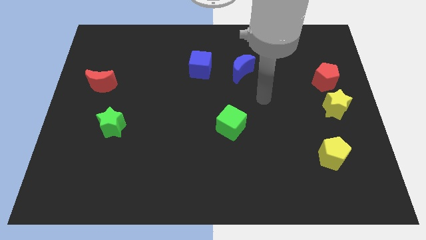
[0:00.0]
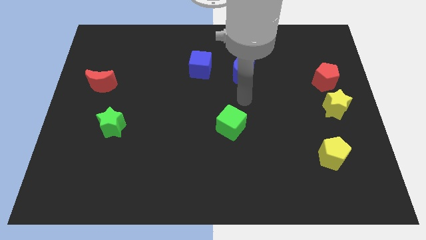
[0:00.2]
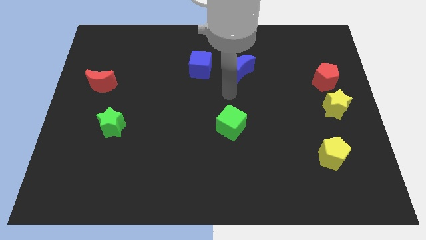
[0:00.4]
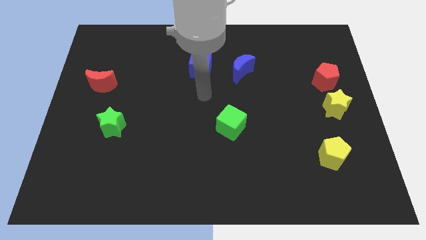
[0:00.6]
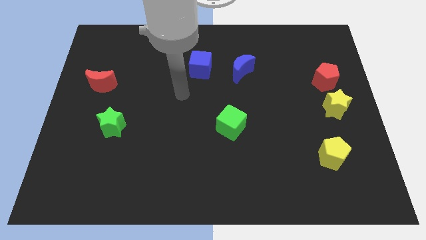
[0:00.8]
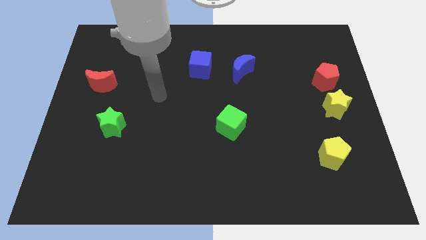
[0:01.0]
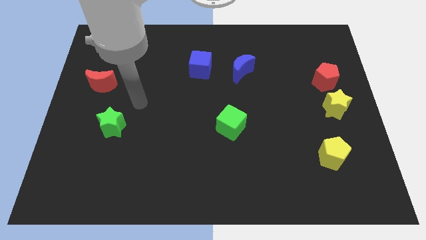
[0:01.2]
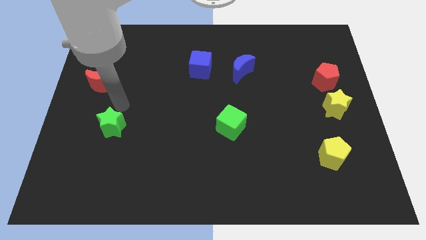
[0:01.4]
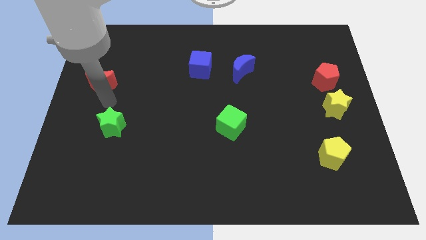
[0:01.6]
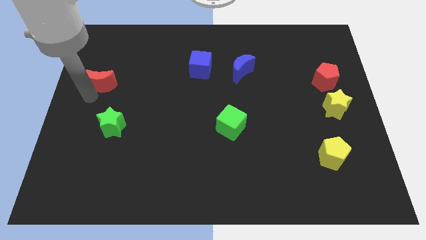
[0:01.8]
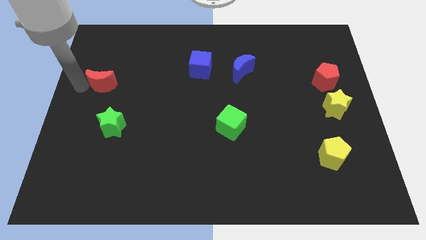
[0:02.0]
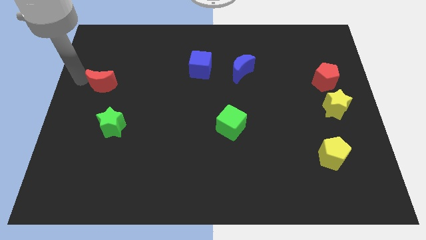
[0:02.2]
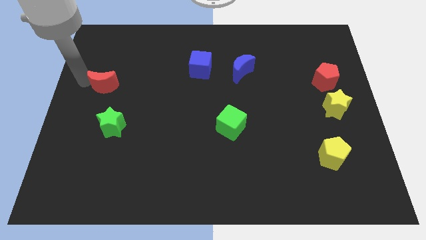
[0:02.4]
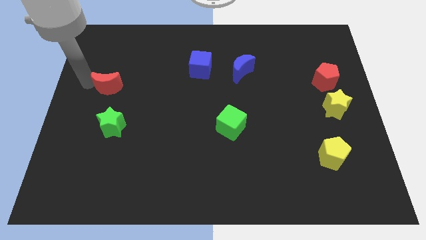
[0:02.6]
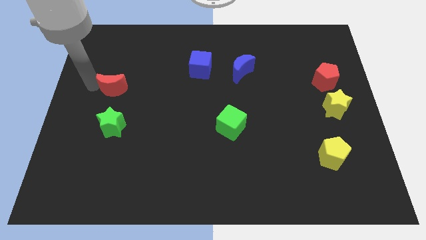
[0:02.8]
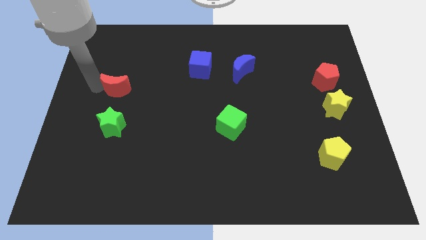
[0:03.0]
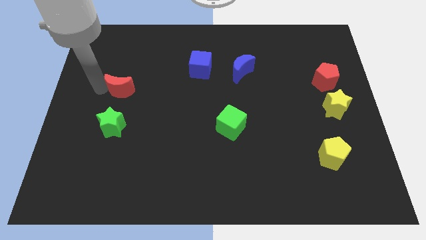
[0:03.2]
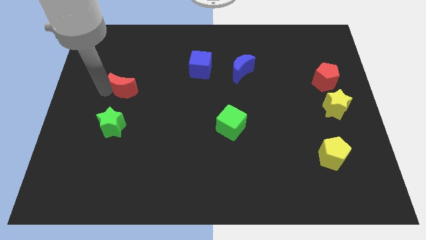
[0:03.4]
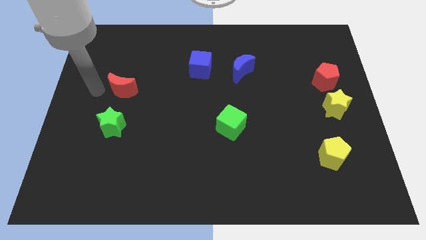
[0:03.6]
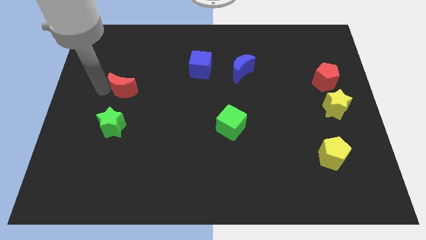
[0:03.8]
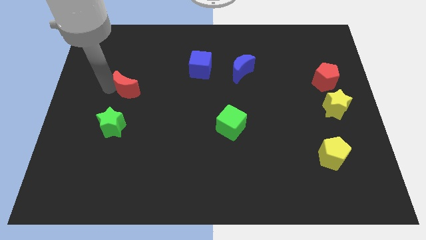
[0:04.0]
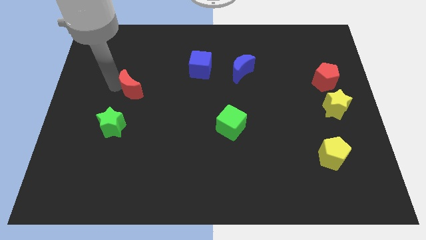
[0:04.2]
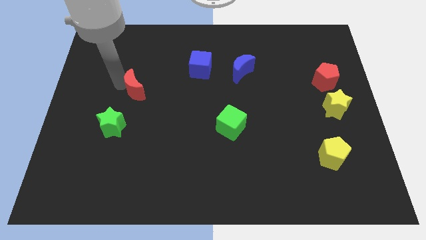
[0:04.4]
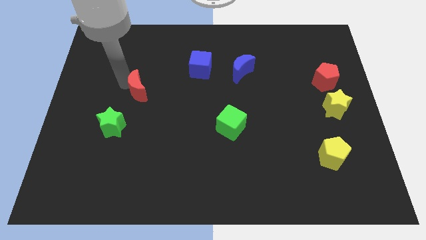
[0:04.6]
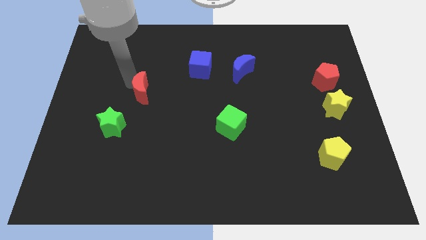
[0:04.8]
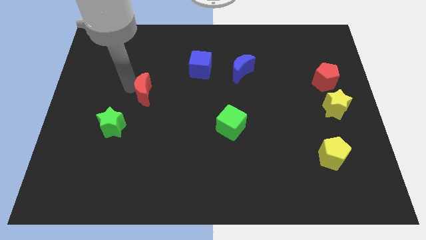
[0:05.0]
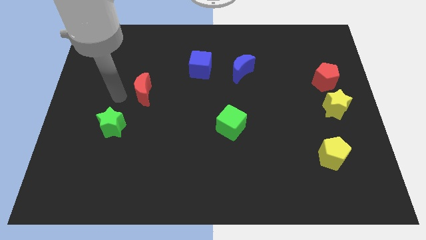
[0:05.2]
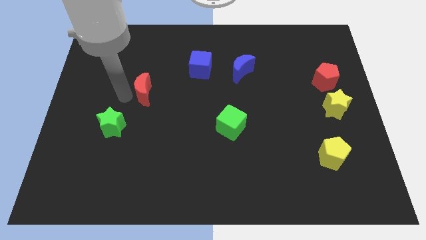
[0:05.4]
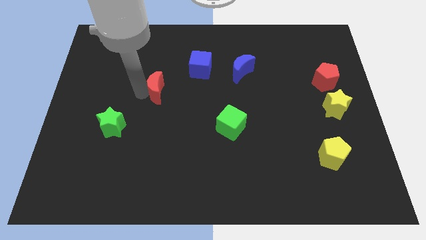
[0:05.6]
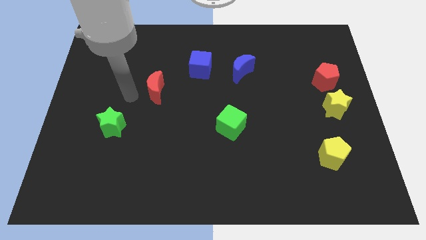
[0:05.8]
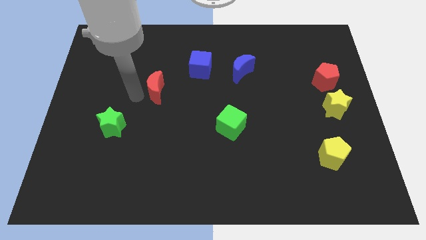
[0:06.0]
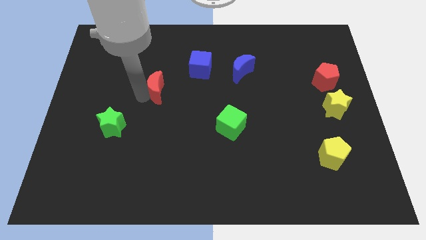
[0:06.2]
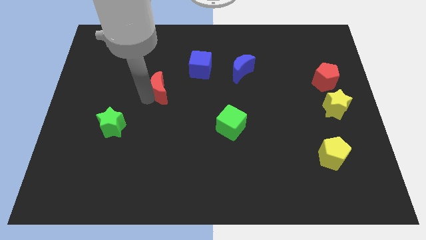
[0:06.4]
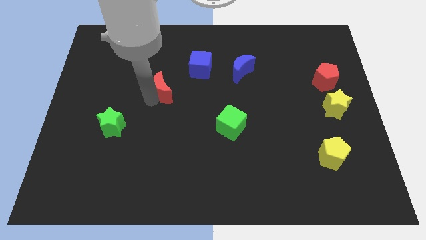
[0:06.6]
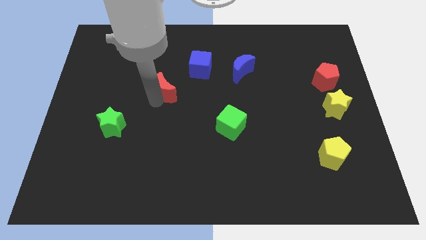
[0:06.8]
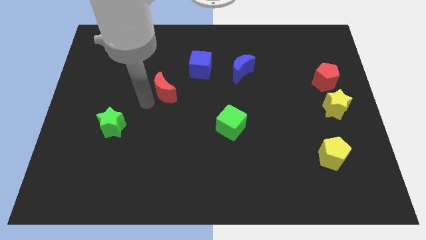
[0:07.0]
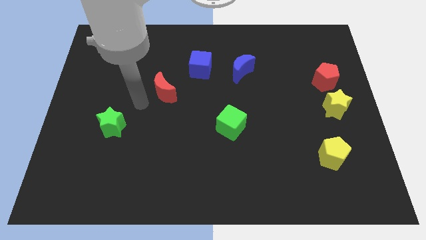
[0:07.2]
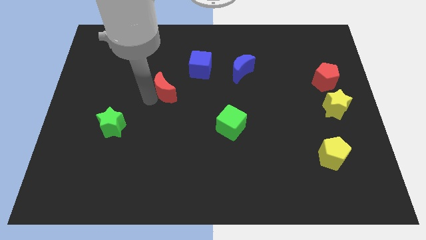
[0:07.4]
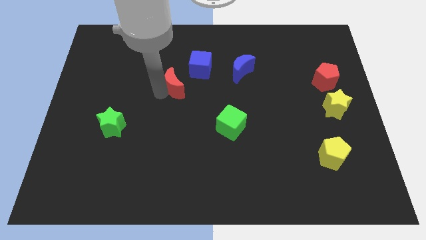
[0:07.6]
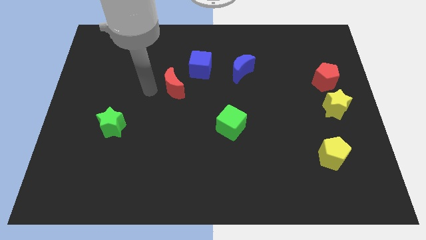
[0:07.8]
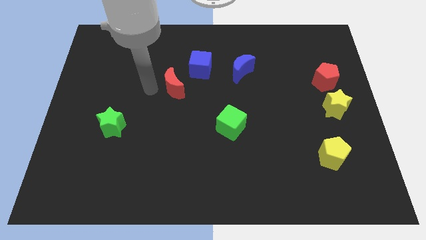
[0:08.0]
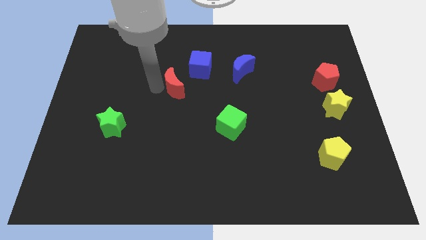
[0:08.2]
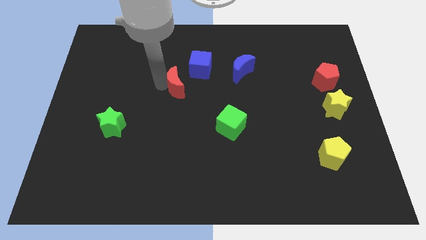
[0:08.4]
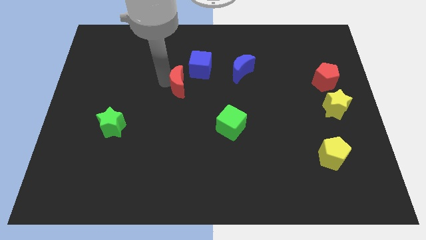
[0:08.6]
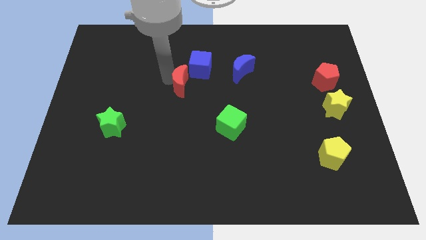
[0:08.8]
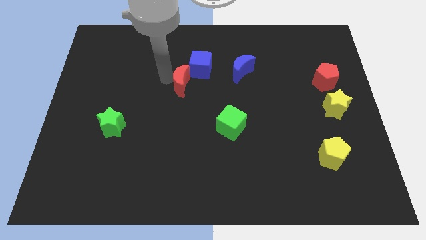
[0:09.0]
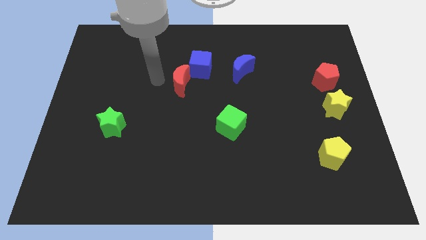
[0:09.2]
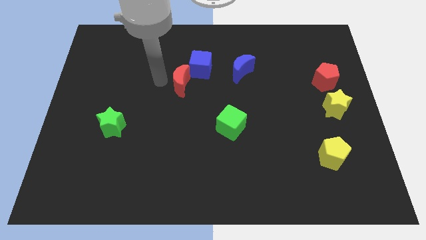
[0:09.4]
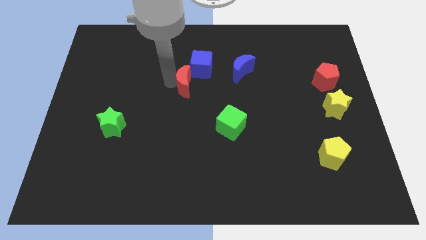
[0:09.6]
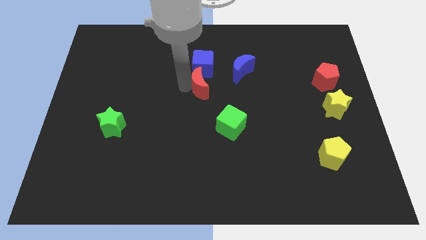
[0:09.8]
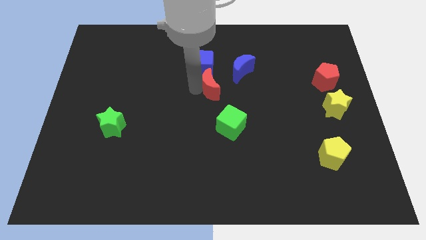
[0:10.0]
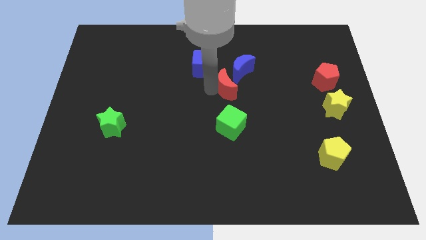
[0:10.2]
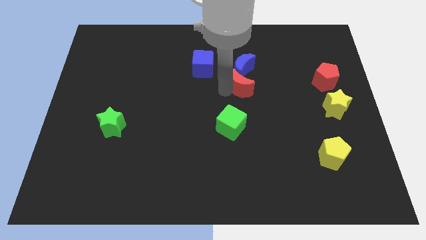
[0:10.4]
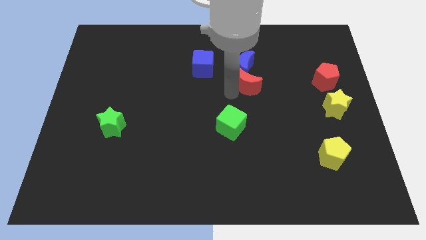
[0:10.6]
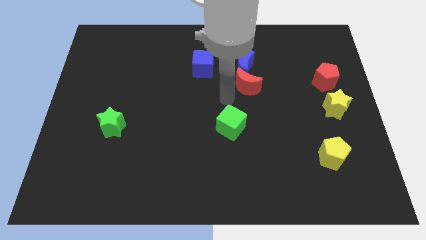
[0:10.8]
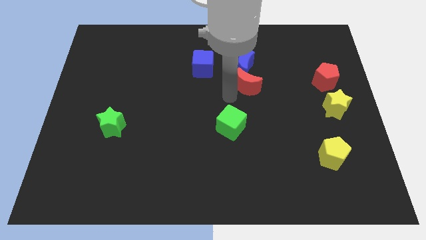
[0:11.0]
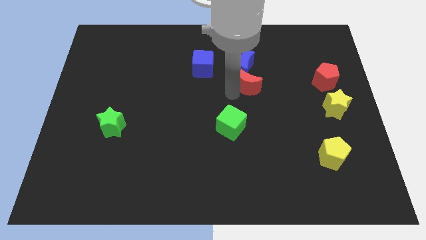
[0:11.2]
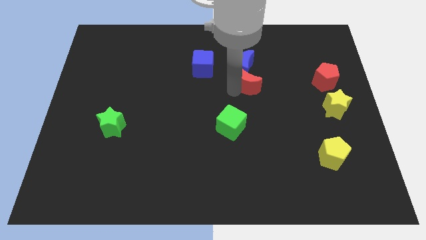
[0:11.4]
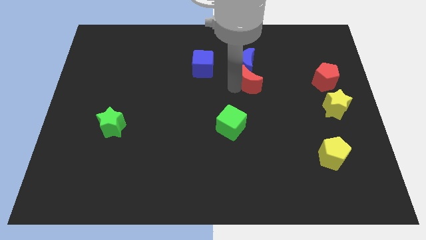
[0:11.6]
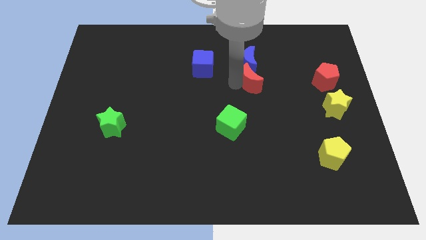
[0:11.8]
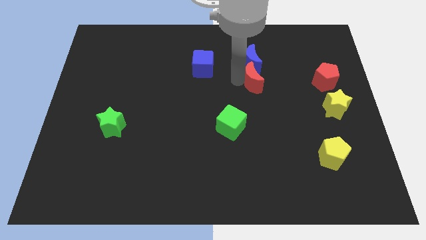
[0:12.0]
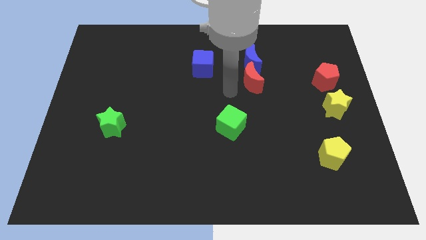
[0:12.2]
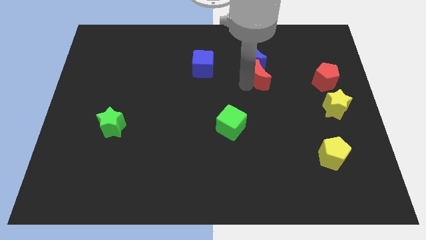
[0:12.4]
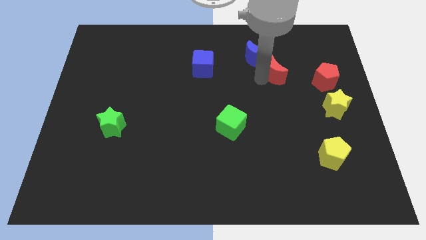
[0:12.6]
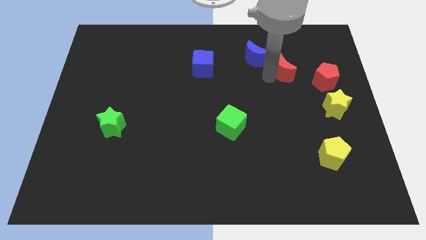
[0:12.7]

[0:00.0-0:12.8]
slide the red moon to the right of the blue moon

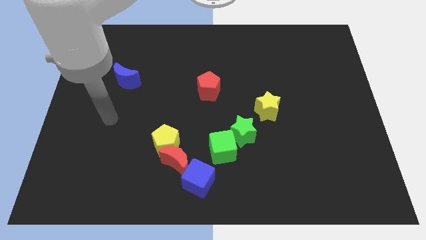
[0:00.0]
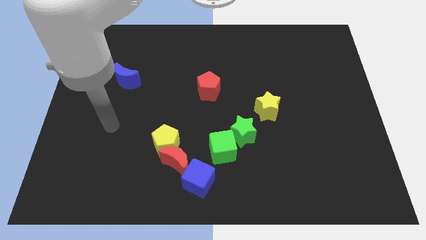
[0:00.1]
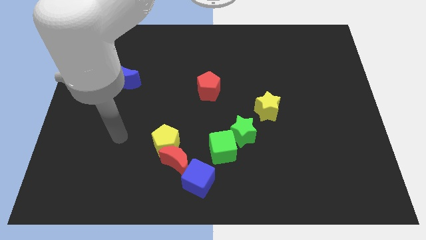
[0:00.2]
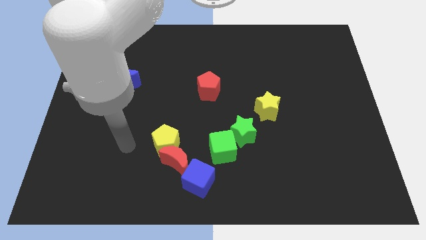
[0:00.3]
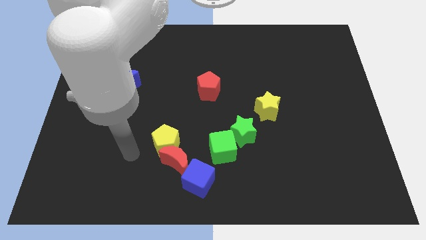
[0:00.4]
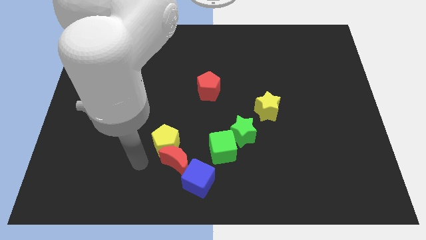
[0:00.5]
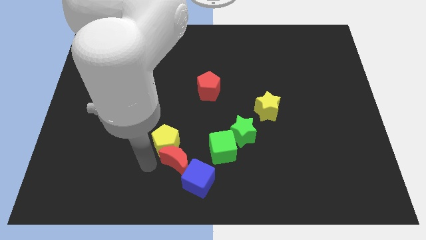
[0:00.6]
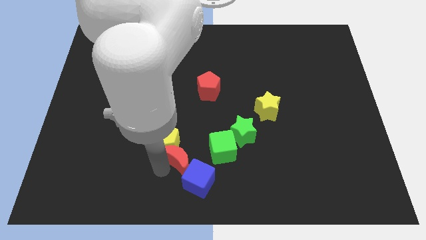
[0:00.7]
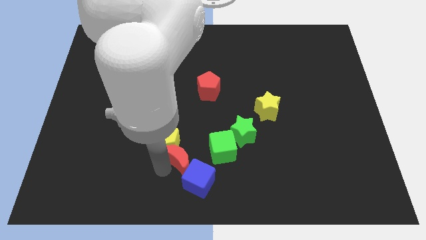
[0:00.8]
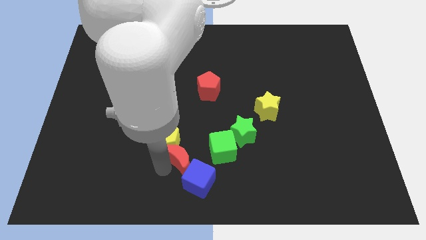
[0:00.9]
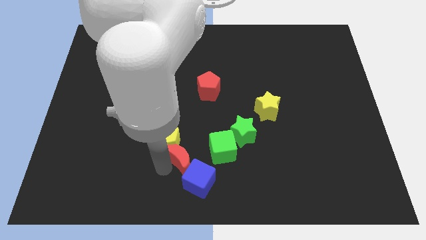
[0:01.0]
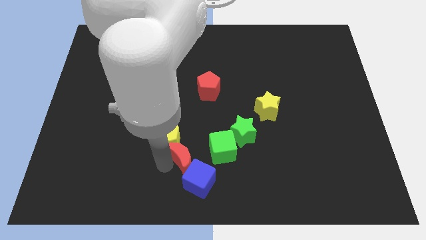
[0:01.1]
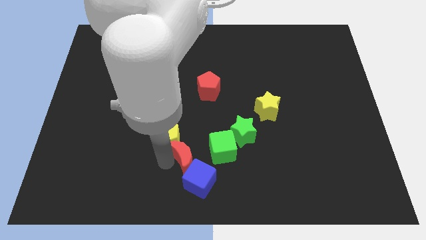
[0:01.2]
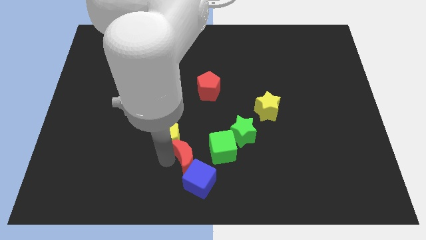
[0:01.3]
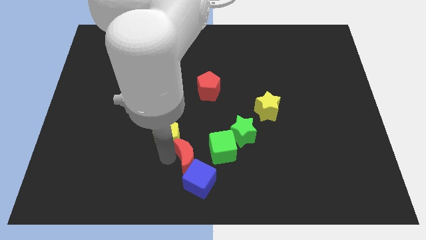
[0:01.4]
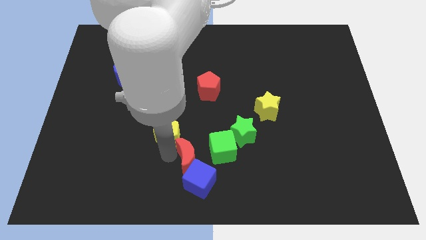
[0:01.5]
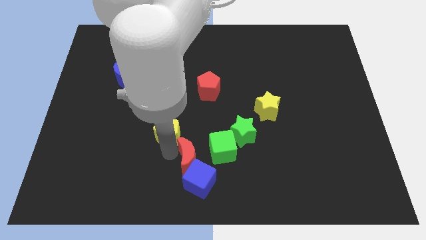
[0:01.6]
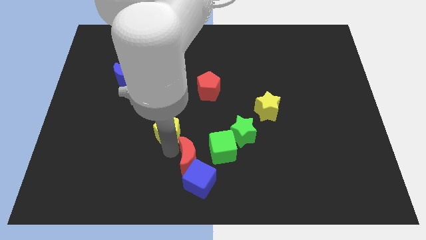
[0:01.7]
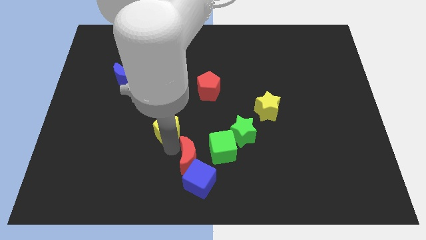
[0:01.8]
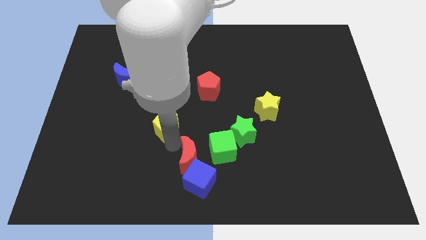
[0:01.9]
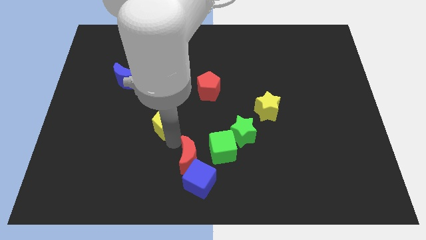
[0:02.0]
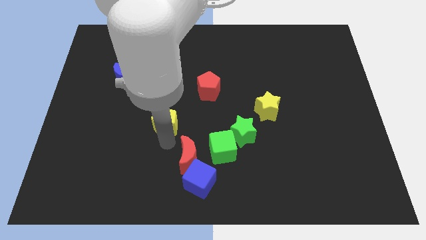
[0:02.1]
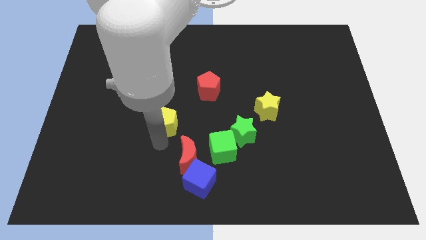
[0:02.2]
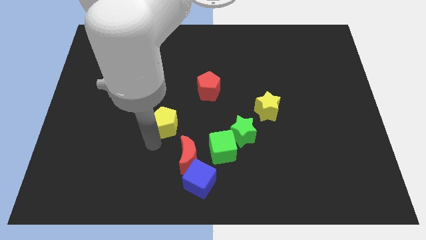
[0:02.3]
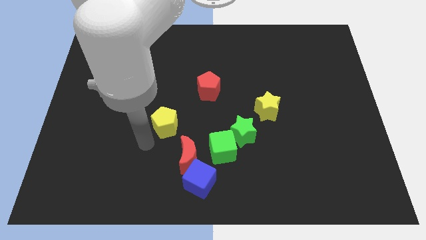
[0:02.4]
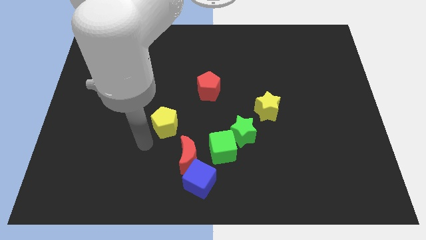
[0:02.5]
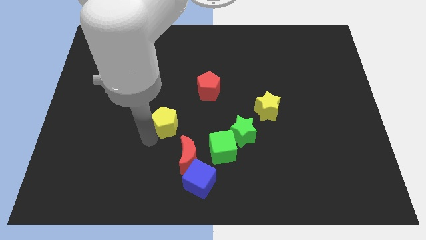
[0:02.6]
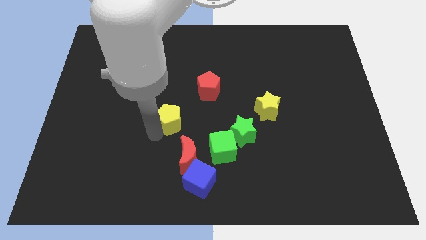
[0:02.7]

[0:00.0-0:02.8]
slide the yellow pentagon diagonally down and to the left of the red pentagon
